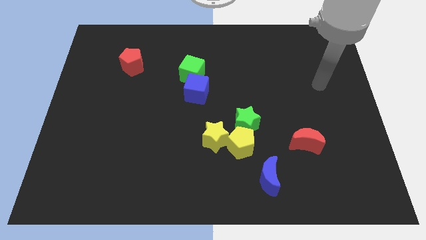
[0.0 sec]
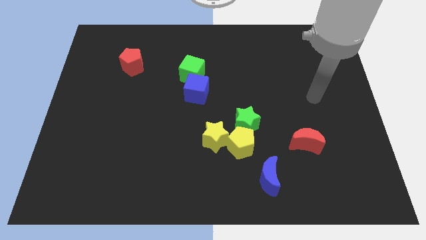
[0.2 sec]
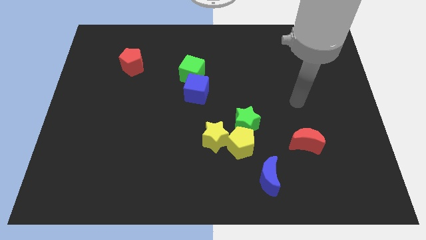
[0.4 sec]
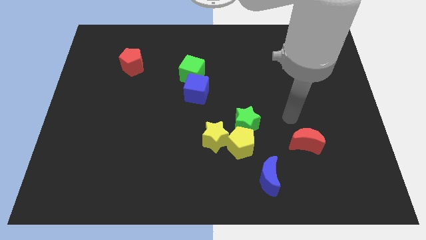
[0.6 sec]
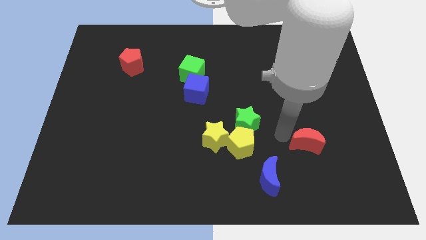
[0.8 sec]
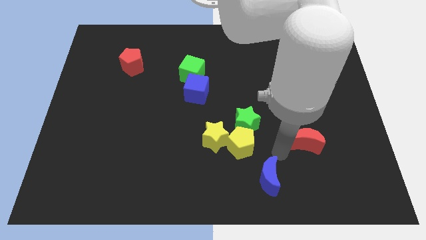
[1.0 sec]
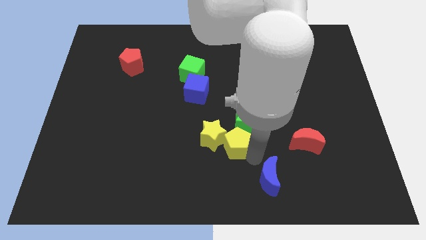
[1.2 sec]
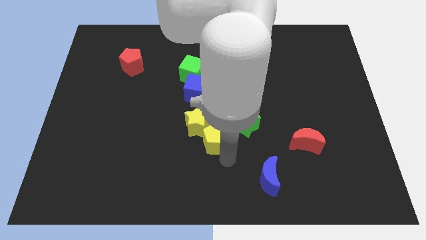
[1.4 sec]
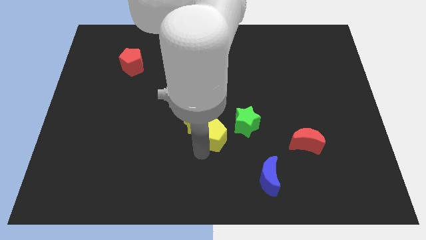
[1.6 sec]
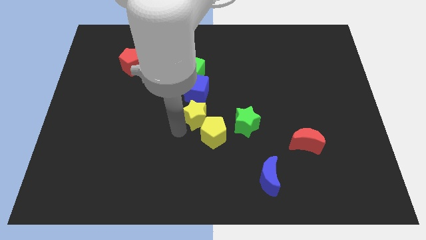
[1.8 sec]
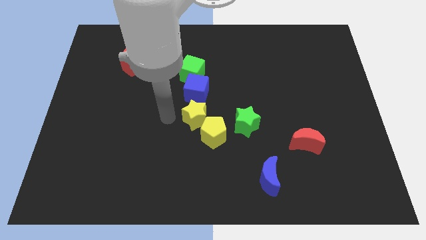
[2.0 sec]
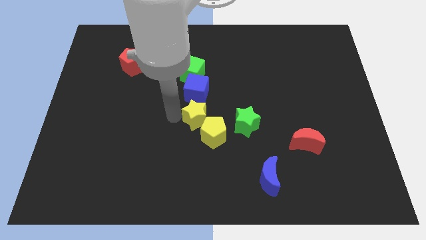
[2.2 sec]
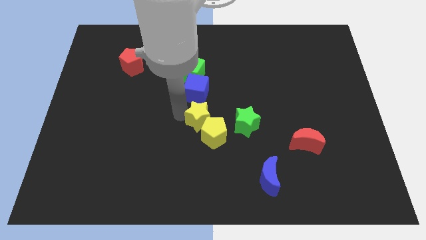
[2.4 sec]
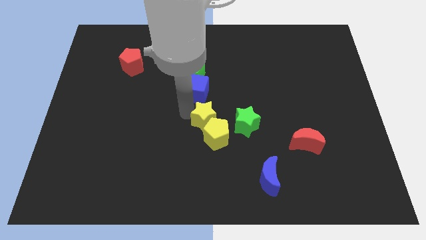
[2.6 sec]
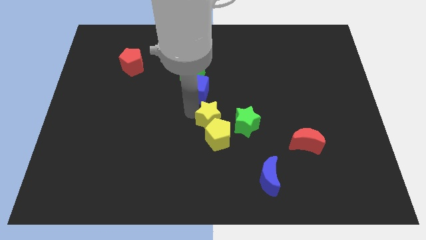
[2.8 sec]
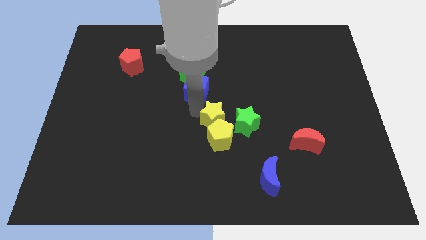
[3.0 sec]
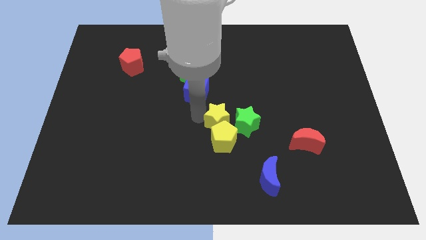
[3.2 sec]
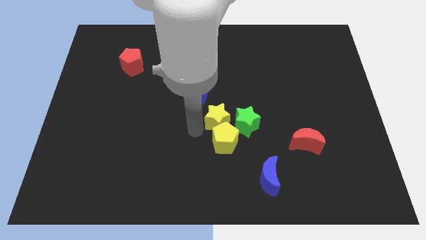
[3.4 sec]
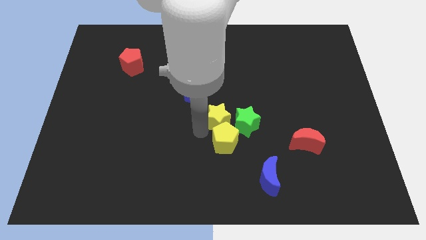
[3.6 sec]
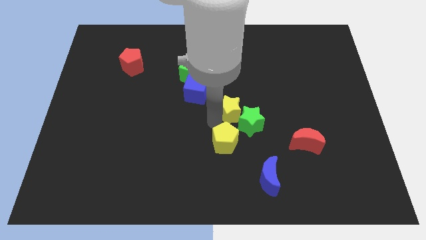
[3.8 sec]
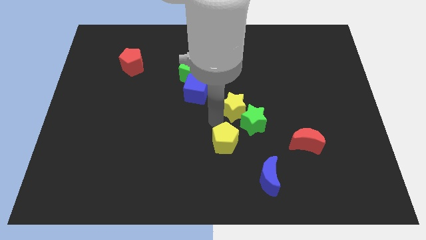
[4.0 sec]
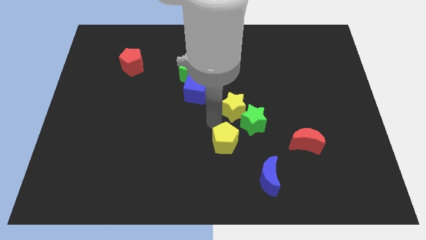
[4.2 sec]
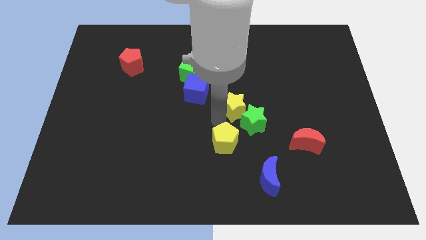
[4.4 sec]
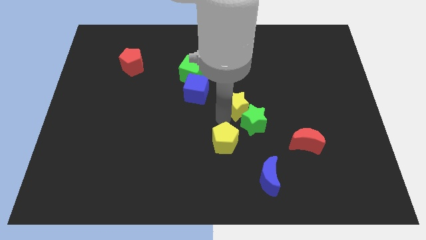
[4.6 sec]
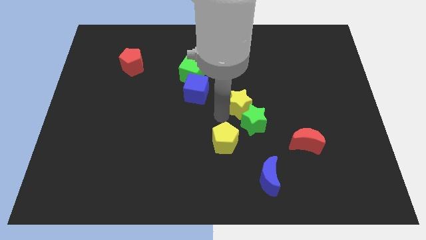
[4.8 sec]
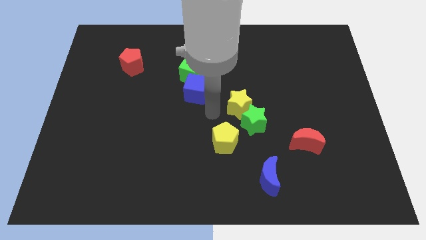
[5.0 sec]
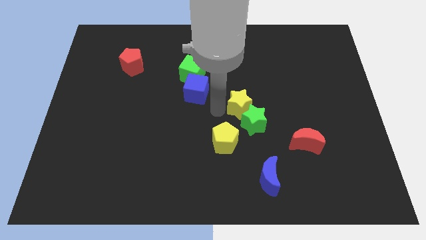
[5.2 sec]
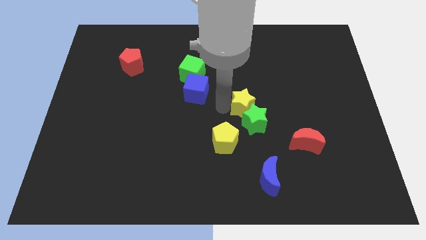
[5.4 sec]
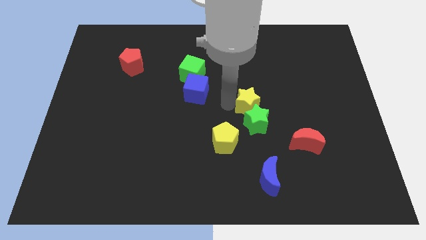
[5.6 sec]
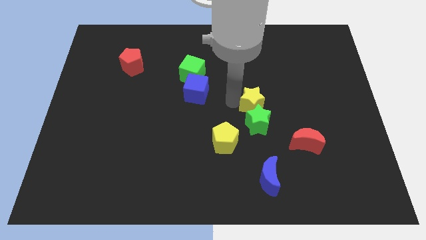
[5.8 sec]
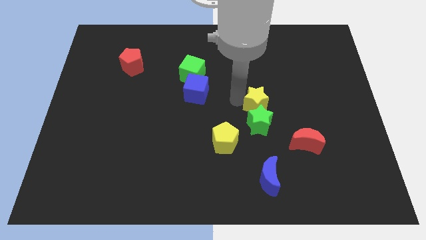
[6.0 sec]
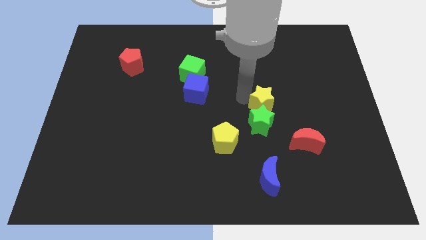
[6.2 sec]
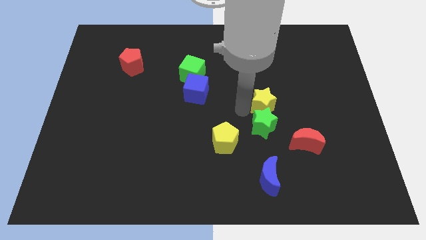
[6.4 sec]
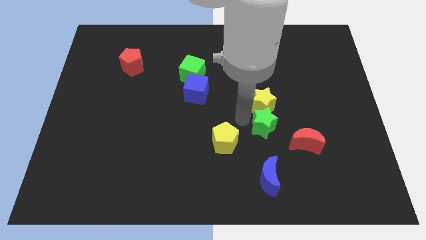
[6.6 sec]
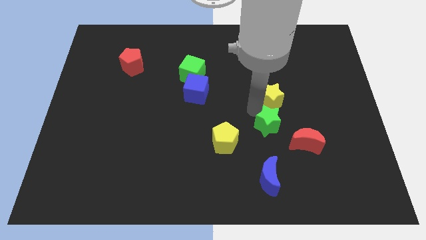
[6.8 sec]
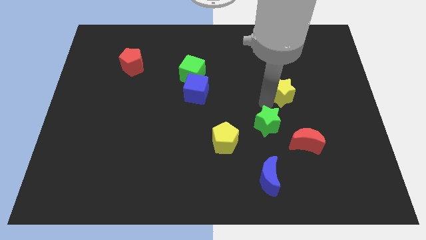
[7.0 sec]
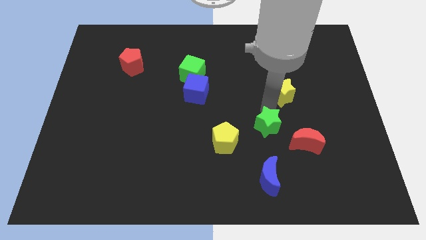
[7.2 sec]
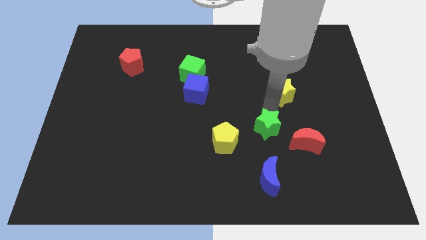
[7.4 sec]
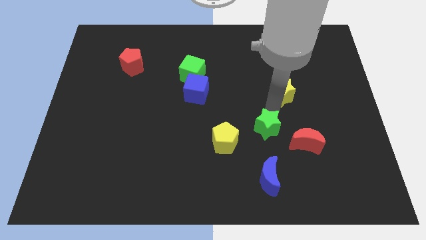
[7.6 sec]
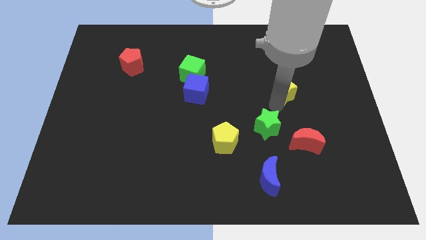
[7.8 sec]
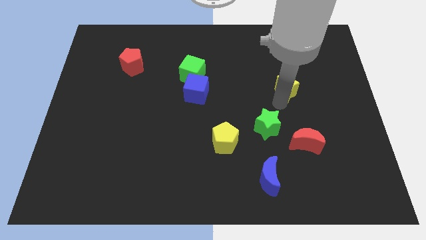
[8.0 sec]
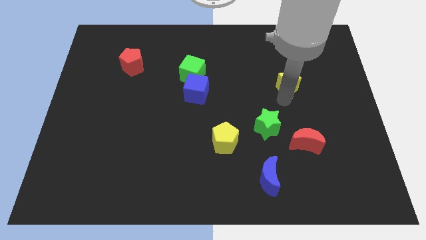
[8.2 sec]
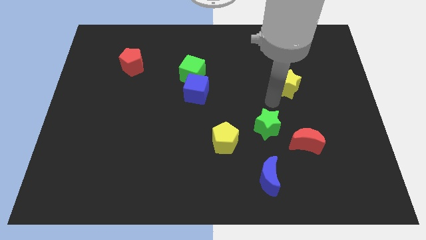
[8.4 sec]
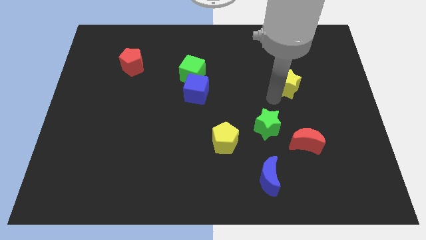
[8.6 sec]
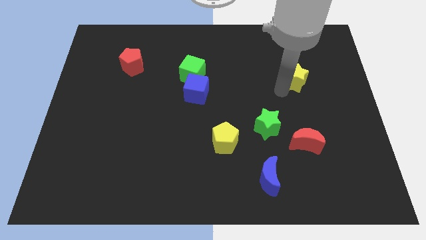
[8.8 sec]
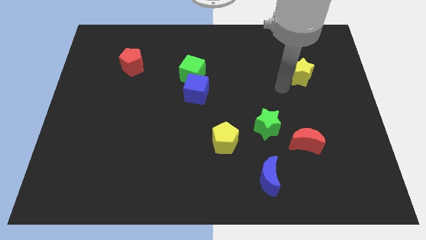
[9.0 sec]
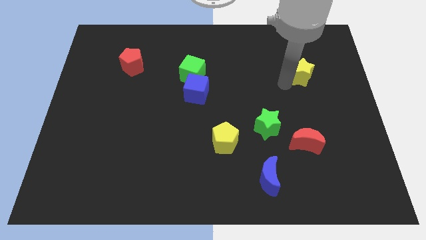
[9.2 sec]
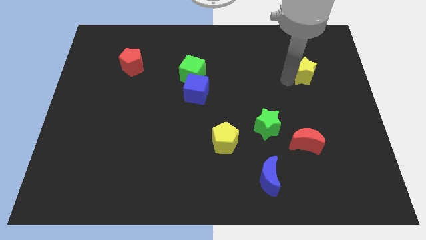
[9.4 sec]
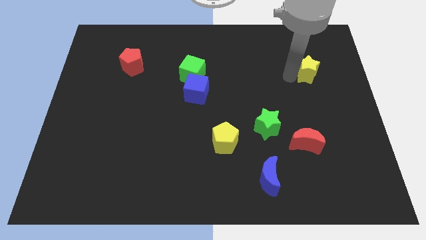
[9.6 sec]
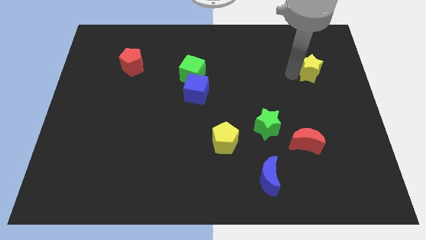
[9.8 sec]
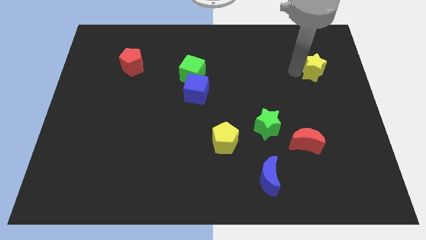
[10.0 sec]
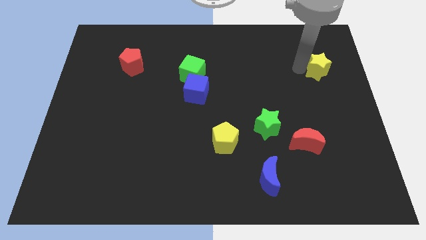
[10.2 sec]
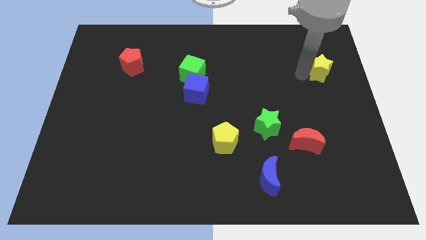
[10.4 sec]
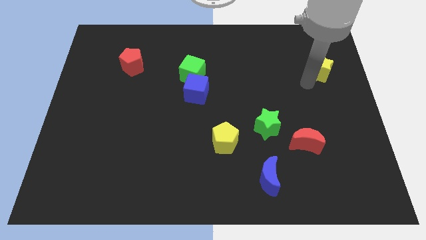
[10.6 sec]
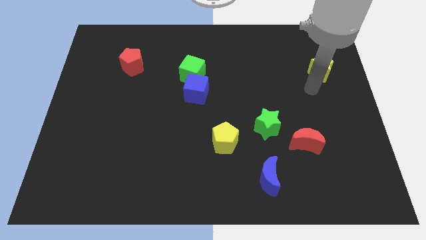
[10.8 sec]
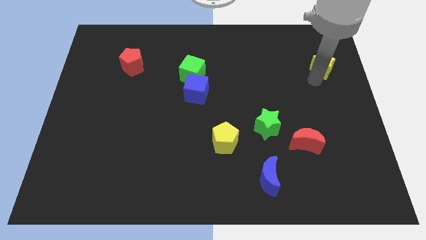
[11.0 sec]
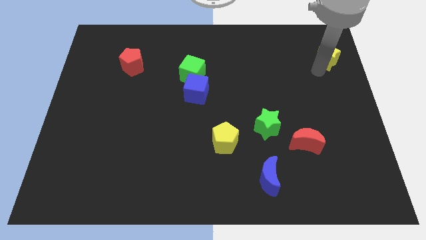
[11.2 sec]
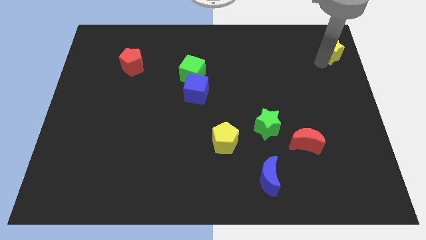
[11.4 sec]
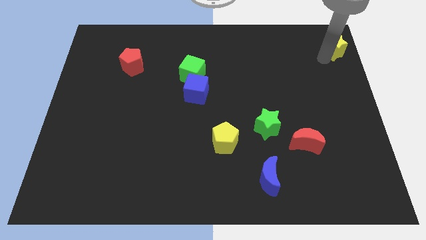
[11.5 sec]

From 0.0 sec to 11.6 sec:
push the yellow star to the top right
